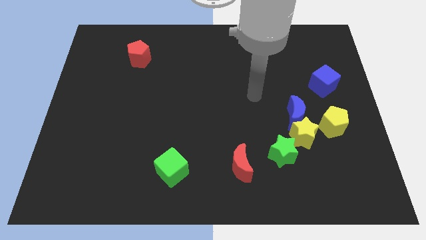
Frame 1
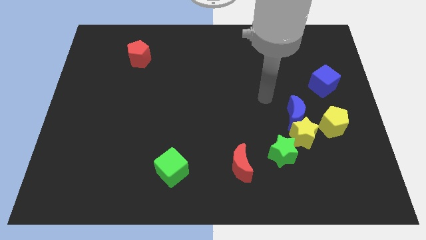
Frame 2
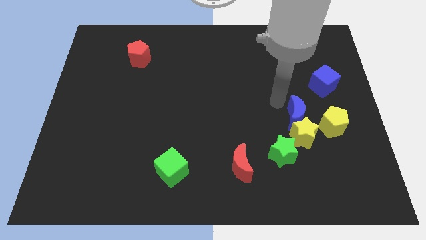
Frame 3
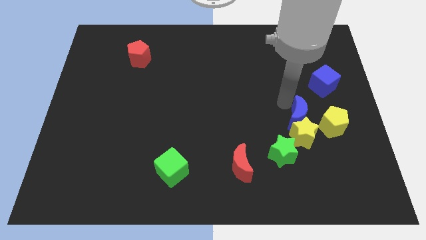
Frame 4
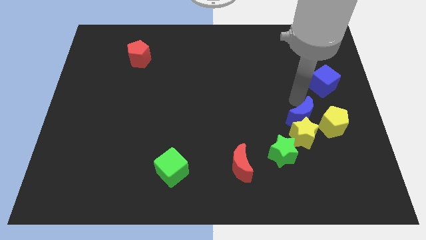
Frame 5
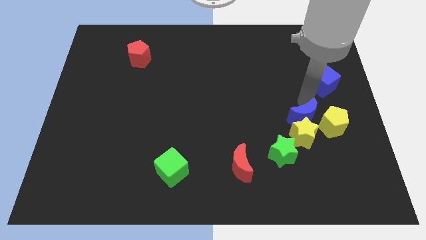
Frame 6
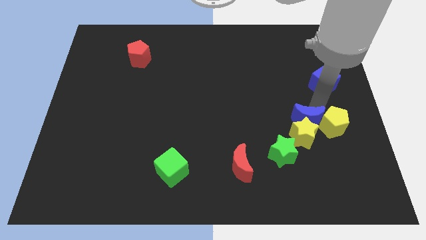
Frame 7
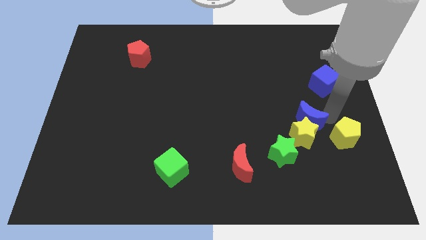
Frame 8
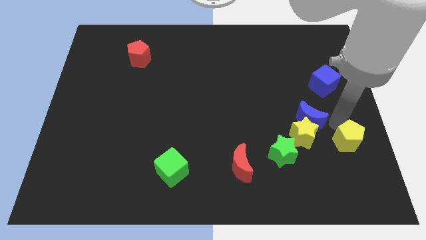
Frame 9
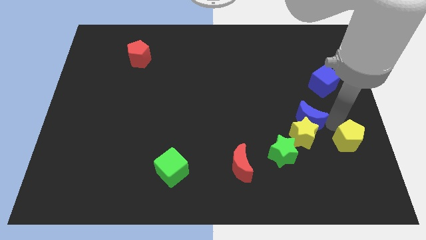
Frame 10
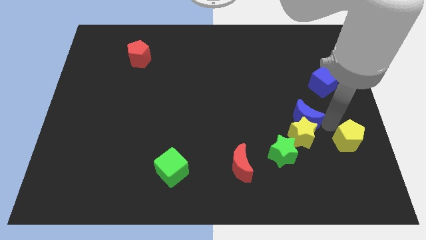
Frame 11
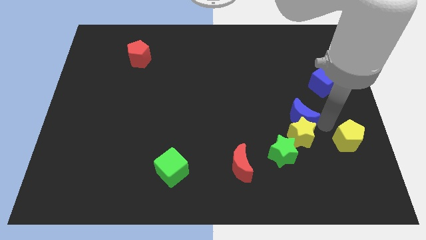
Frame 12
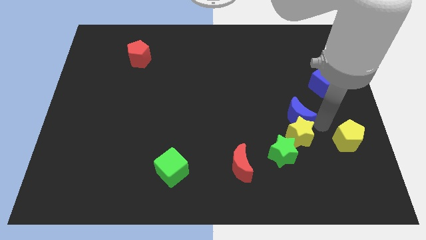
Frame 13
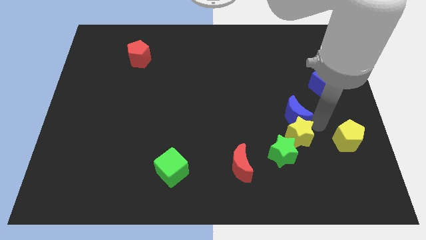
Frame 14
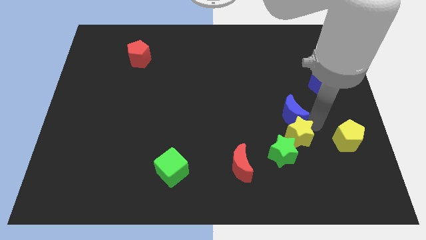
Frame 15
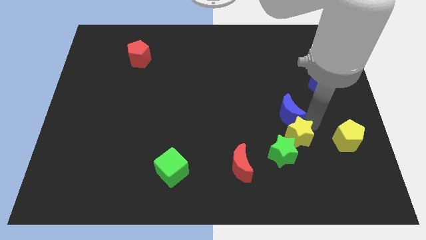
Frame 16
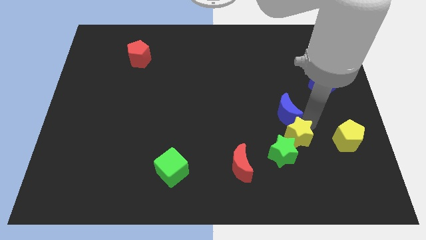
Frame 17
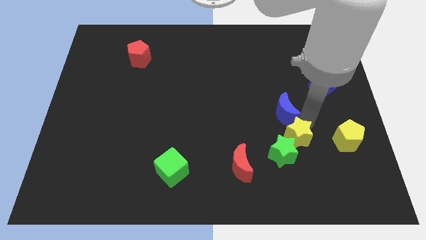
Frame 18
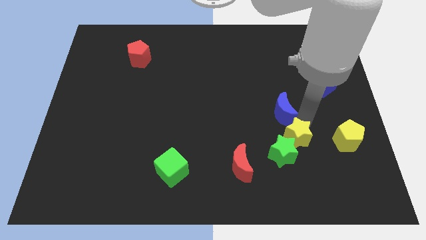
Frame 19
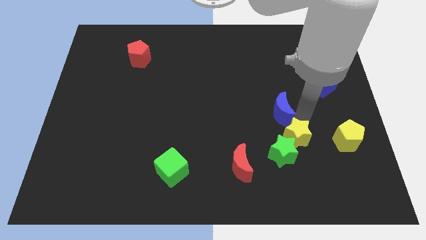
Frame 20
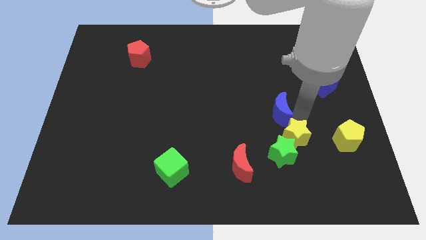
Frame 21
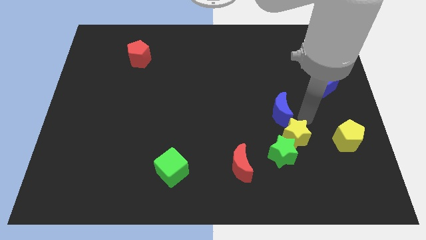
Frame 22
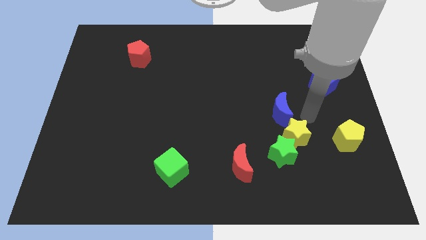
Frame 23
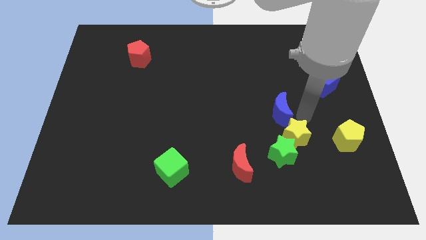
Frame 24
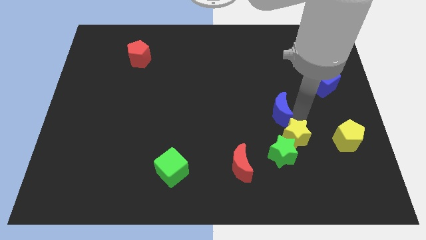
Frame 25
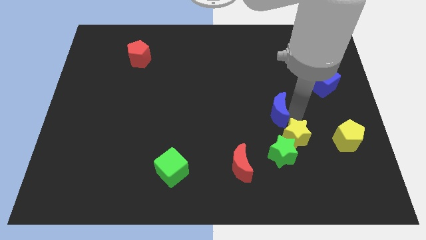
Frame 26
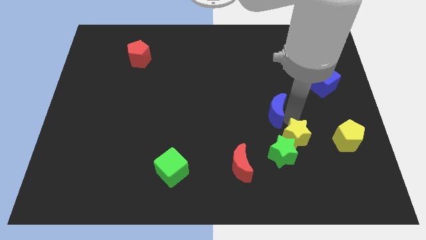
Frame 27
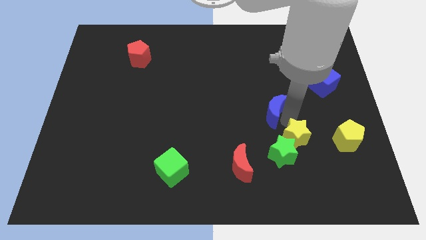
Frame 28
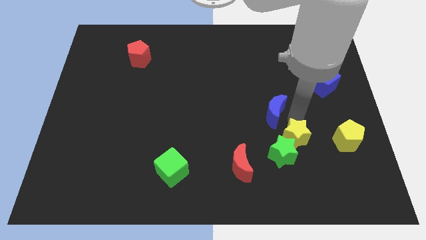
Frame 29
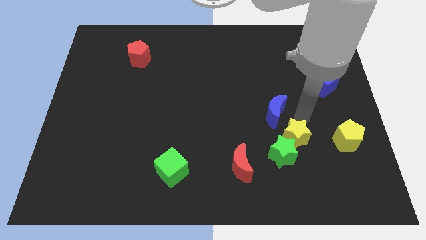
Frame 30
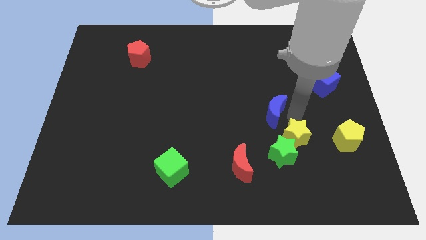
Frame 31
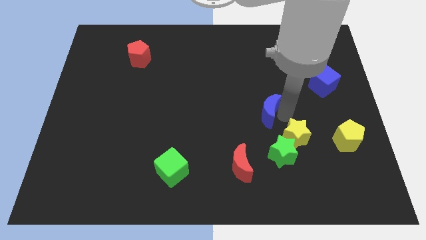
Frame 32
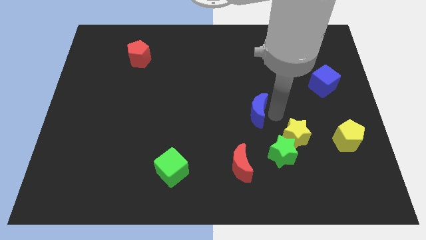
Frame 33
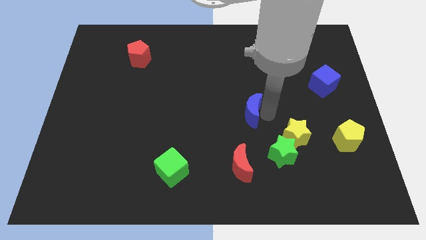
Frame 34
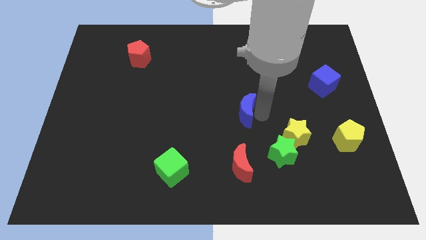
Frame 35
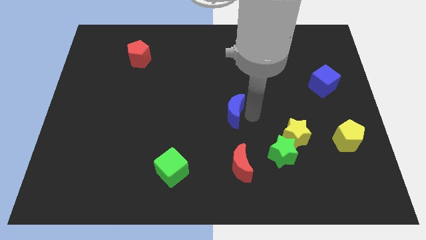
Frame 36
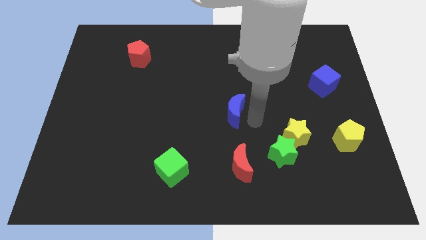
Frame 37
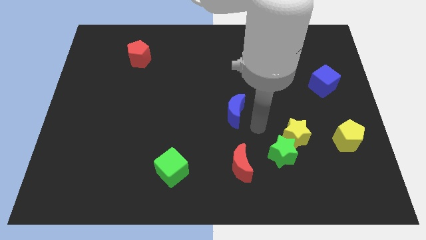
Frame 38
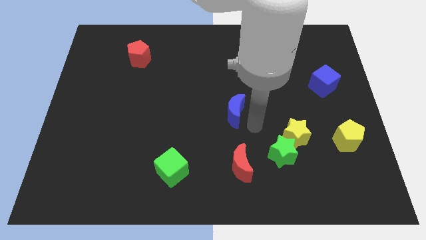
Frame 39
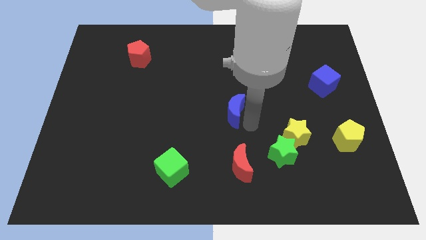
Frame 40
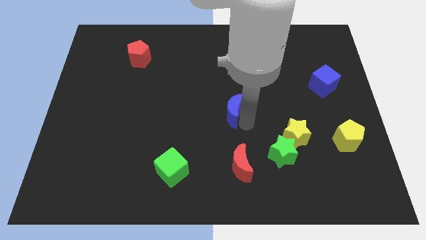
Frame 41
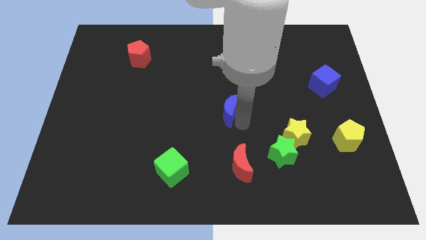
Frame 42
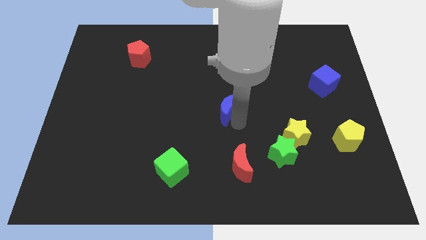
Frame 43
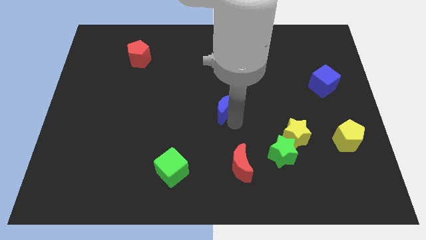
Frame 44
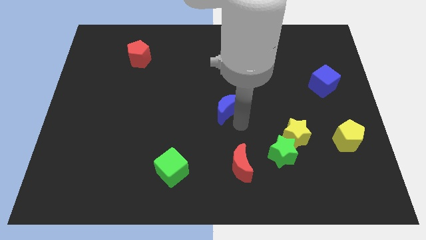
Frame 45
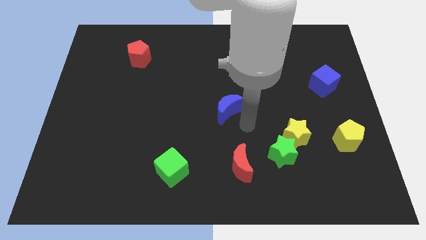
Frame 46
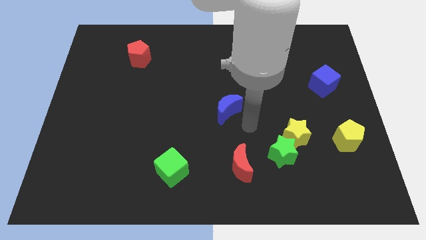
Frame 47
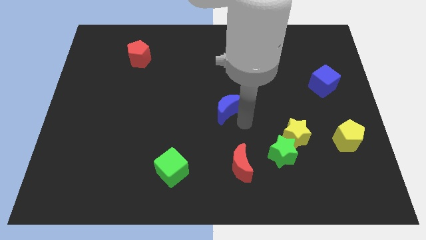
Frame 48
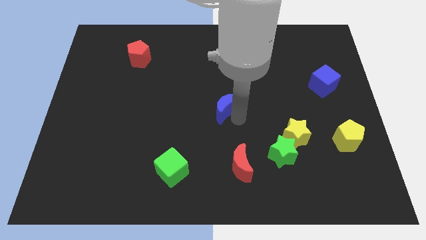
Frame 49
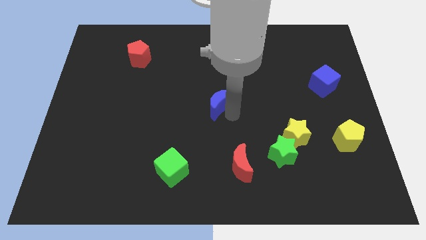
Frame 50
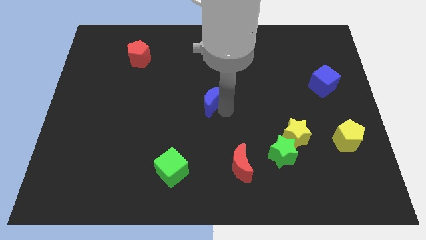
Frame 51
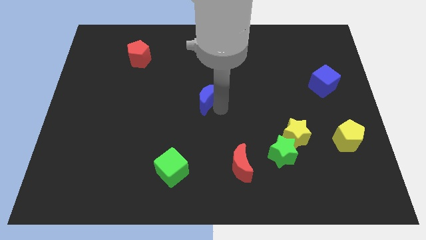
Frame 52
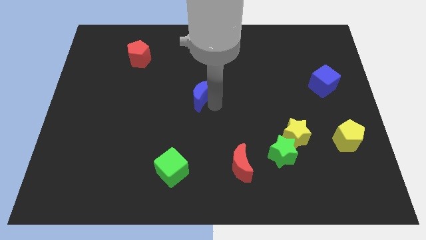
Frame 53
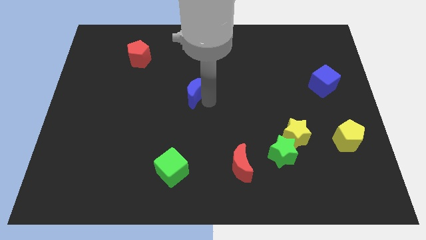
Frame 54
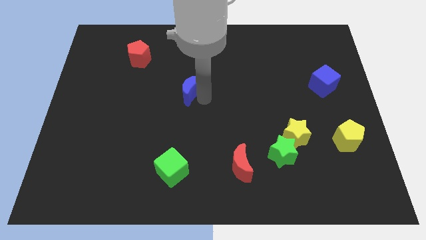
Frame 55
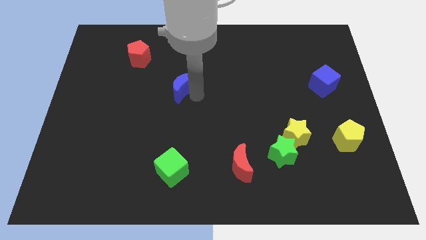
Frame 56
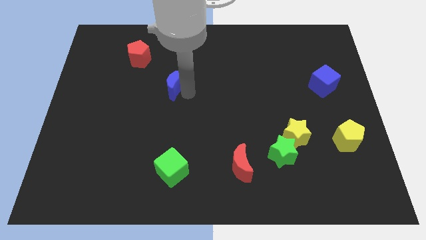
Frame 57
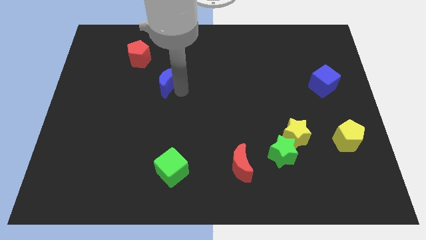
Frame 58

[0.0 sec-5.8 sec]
put the blue moon diagonally down and to the right of the red pentagon

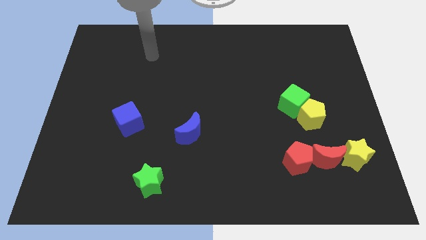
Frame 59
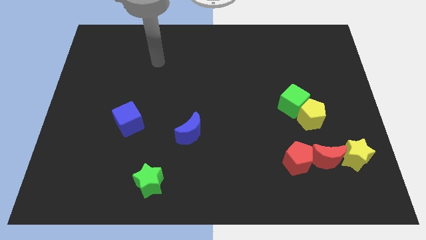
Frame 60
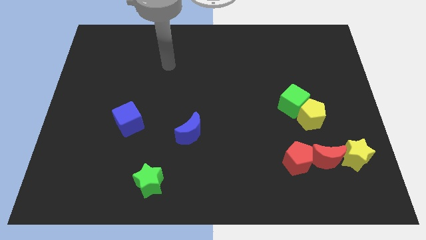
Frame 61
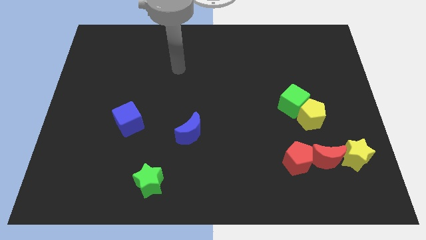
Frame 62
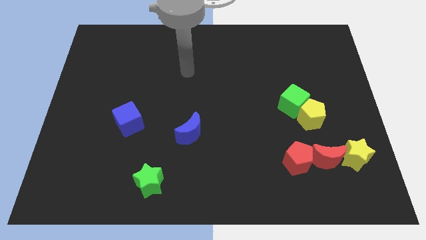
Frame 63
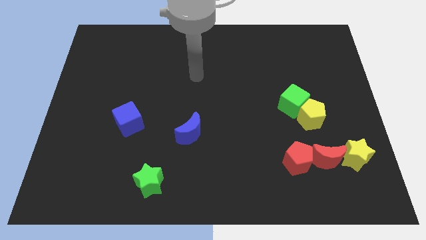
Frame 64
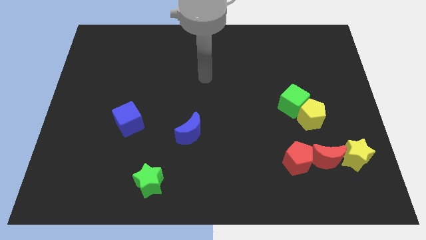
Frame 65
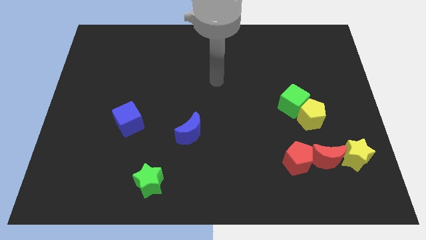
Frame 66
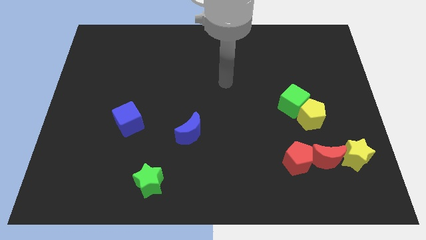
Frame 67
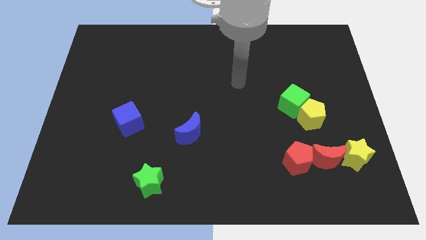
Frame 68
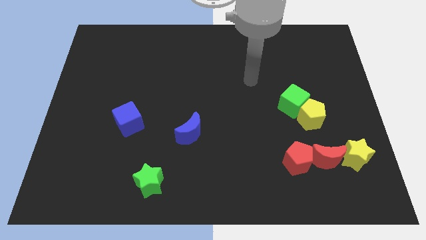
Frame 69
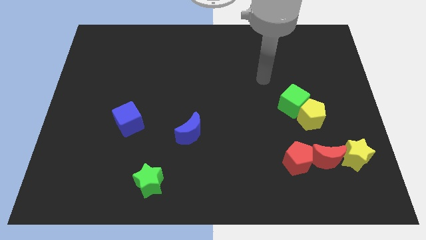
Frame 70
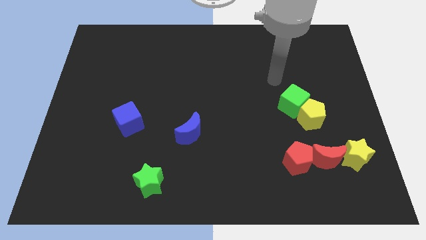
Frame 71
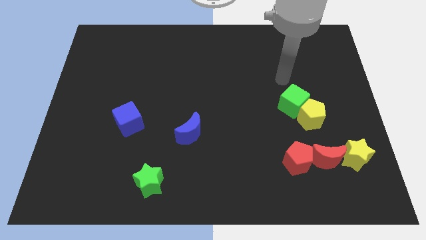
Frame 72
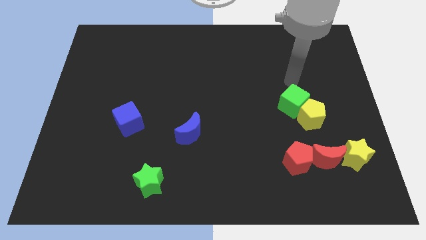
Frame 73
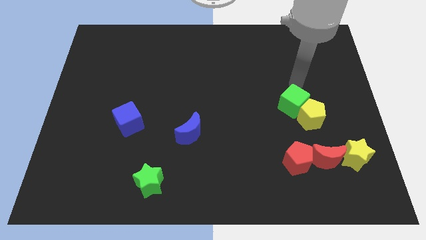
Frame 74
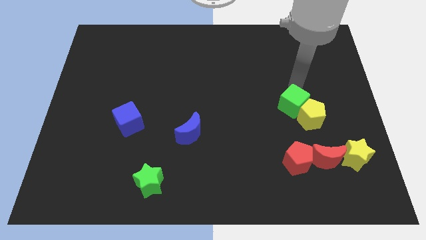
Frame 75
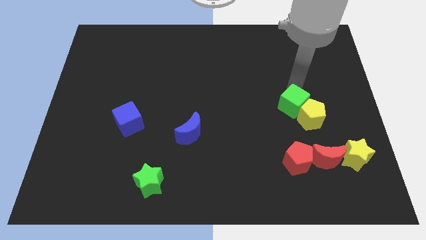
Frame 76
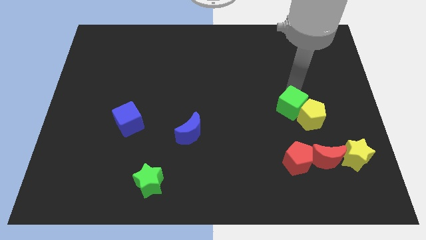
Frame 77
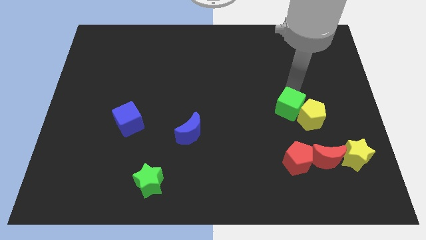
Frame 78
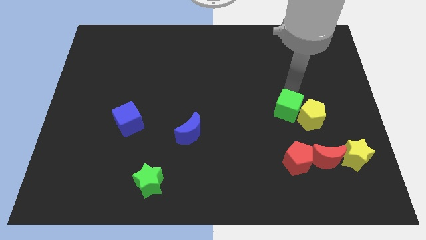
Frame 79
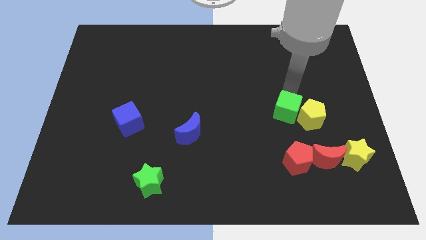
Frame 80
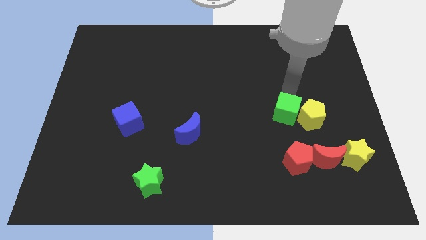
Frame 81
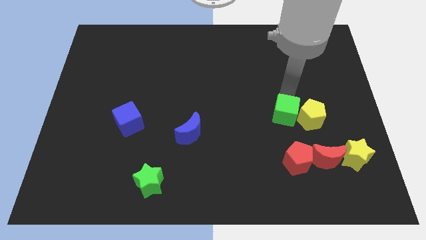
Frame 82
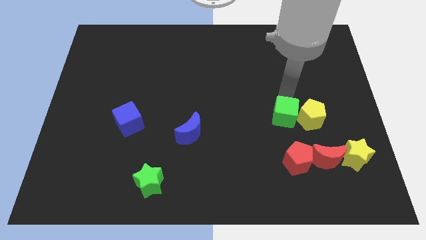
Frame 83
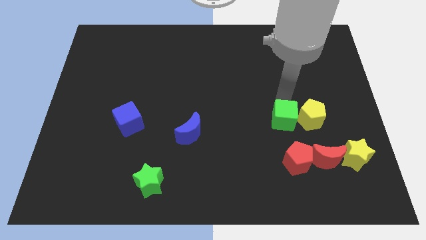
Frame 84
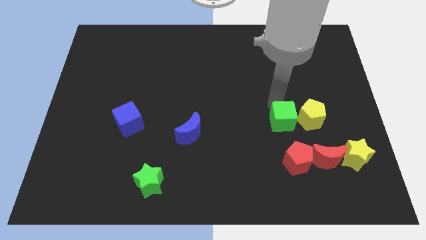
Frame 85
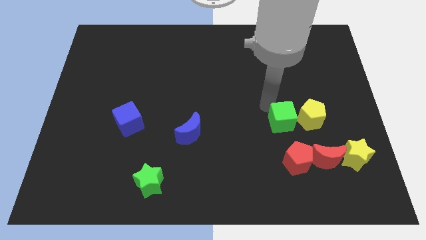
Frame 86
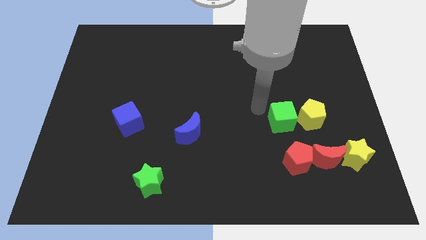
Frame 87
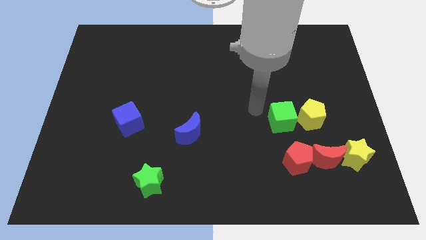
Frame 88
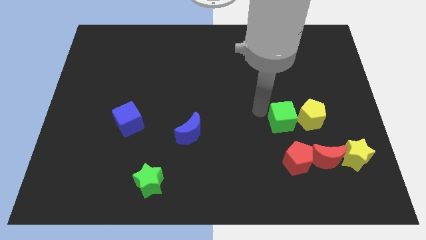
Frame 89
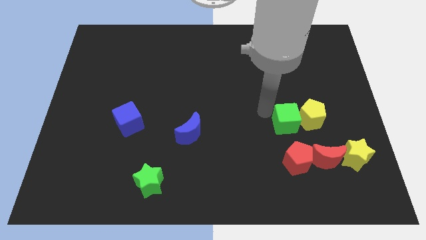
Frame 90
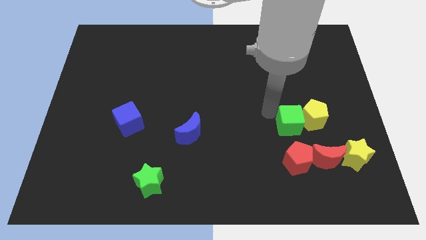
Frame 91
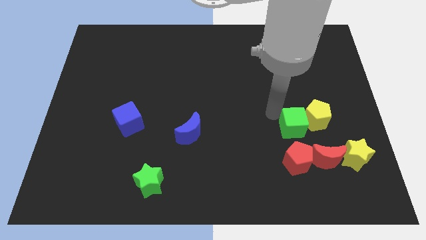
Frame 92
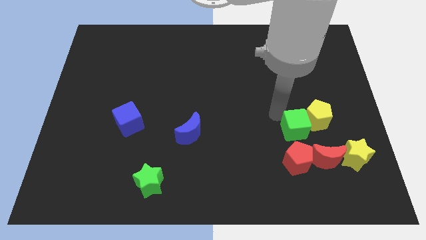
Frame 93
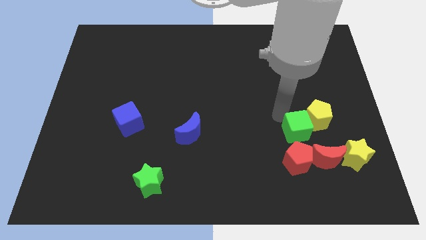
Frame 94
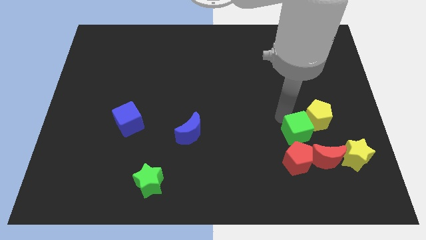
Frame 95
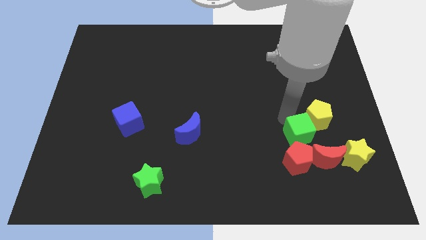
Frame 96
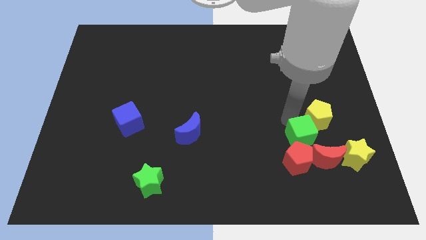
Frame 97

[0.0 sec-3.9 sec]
move the green cube diagonally up and to the left of the yellow star
